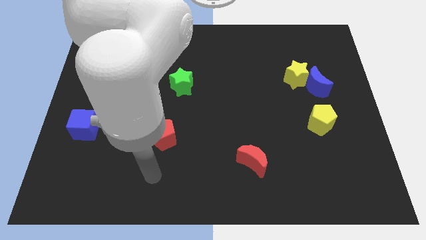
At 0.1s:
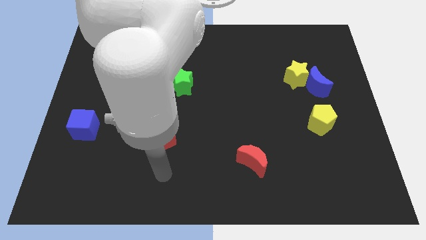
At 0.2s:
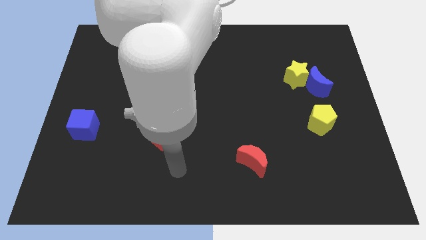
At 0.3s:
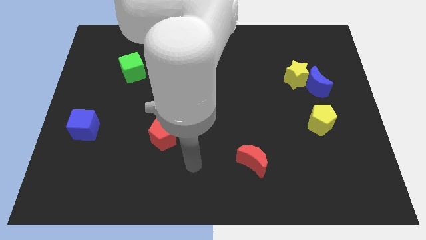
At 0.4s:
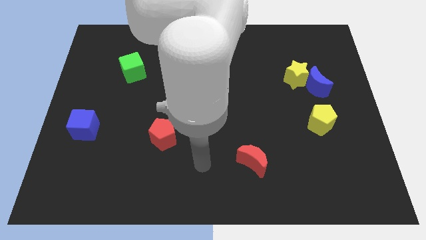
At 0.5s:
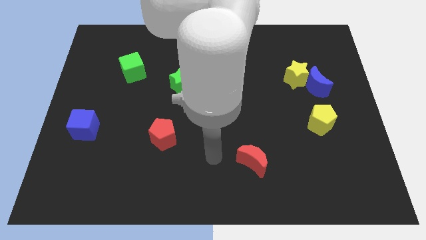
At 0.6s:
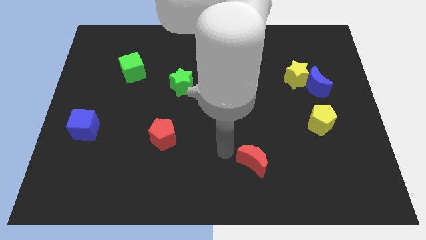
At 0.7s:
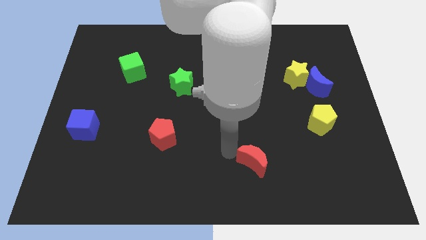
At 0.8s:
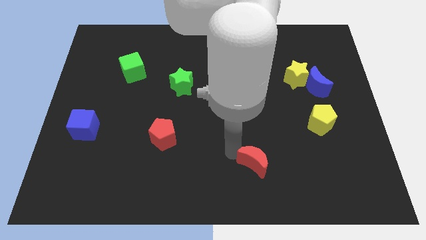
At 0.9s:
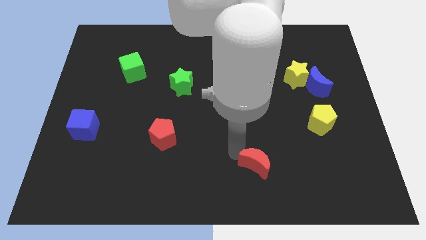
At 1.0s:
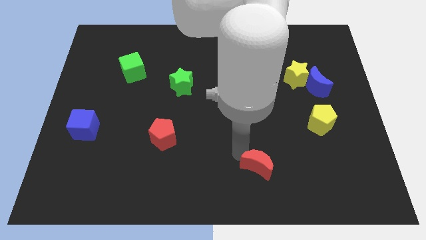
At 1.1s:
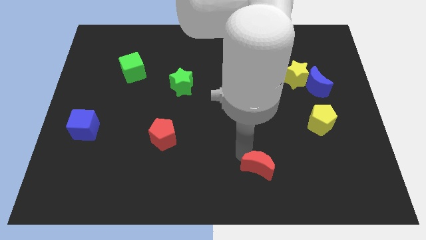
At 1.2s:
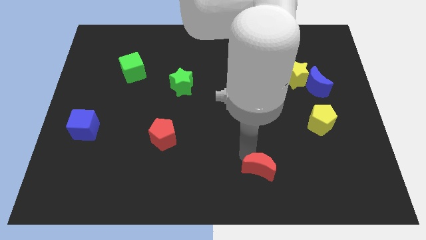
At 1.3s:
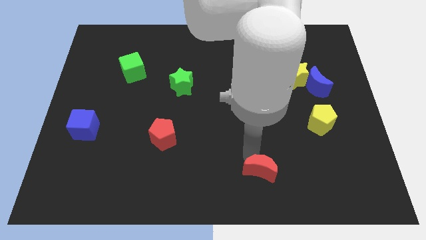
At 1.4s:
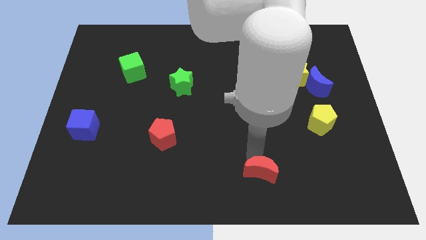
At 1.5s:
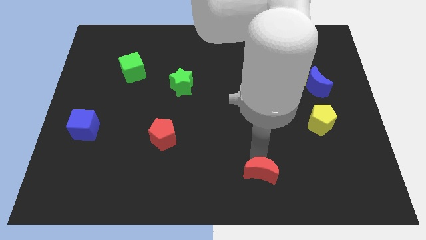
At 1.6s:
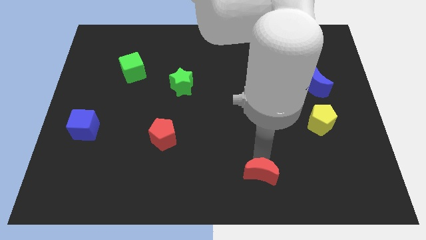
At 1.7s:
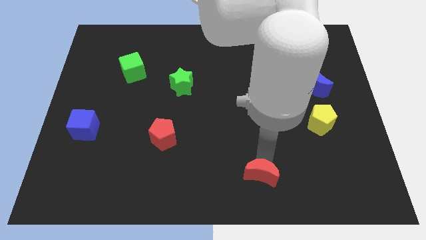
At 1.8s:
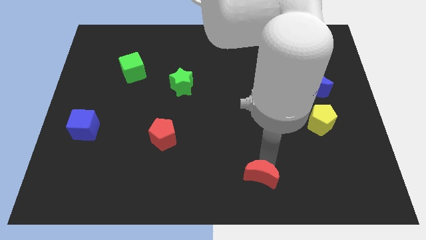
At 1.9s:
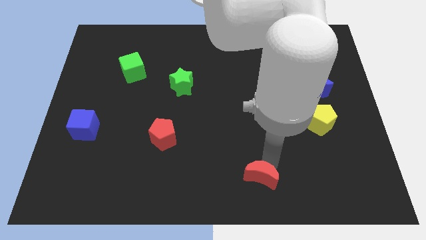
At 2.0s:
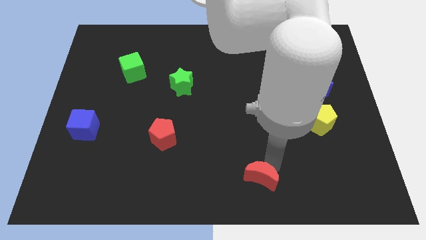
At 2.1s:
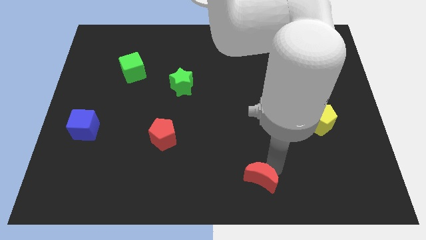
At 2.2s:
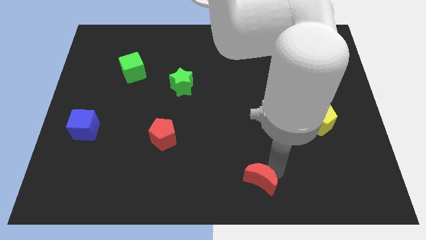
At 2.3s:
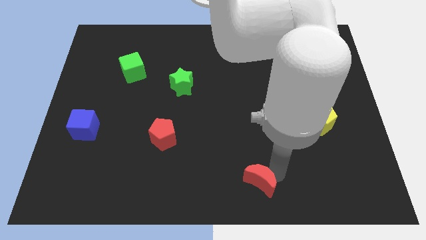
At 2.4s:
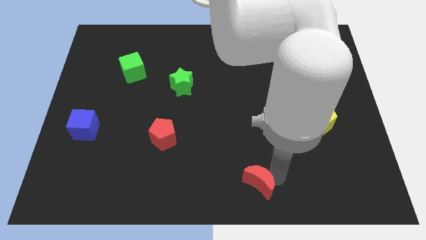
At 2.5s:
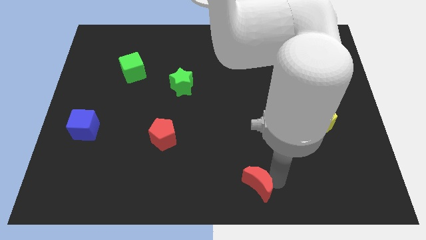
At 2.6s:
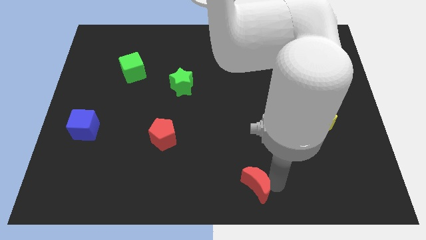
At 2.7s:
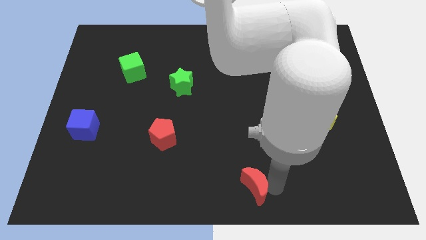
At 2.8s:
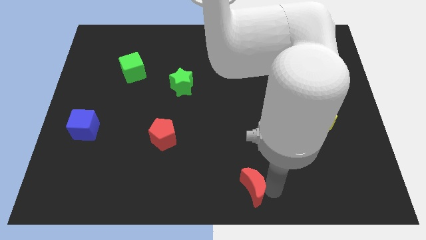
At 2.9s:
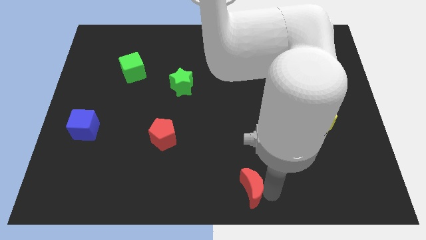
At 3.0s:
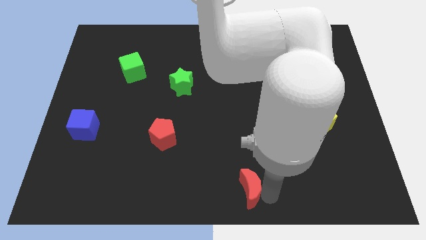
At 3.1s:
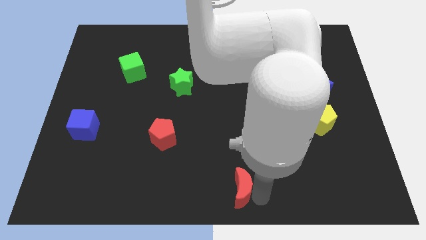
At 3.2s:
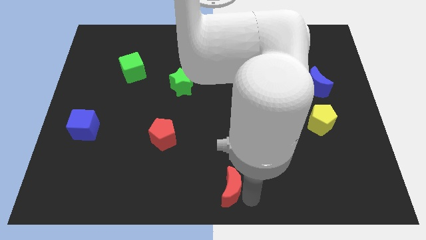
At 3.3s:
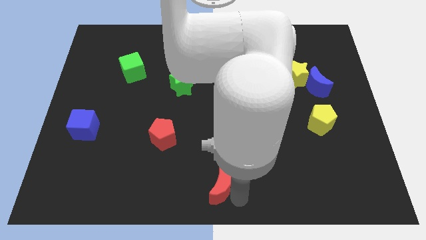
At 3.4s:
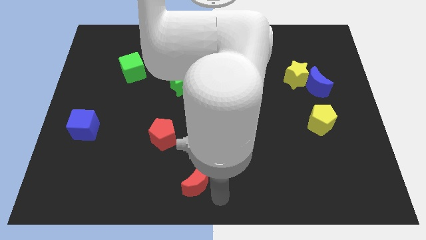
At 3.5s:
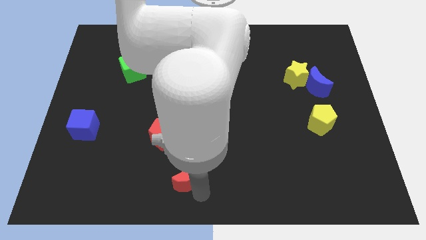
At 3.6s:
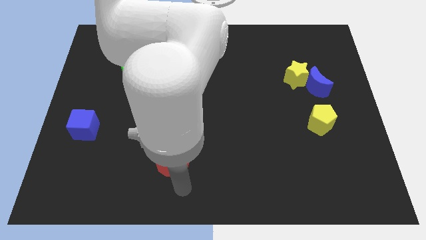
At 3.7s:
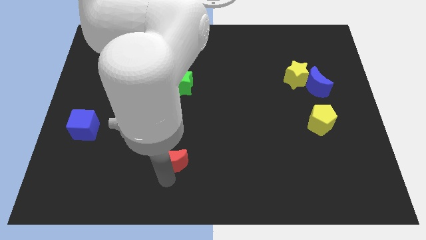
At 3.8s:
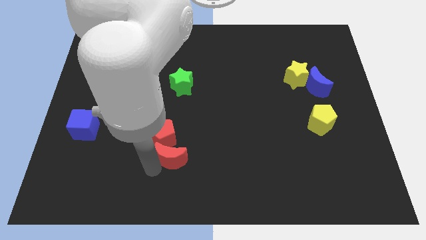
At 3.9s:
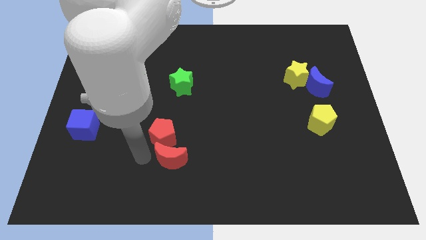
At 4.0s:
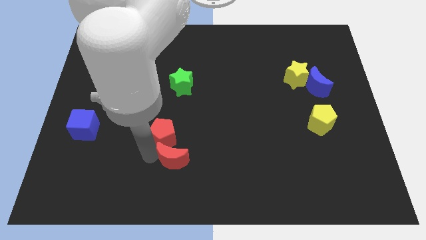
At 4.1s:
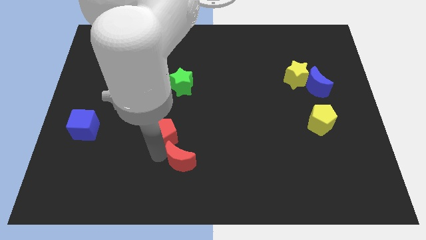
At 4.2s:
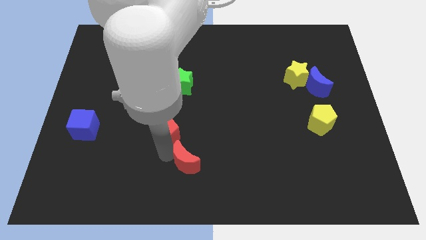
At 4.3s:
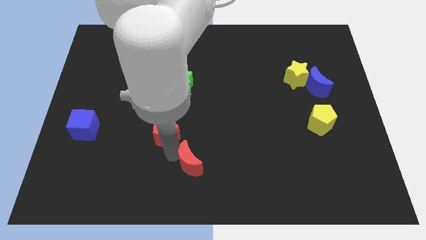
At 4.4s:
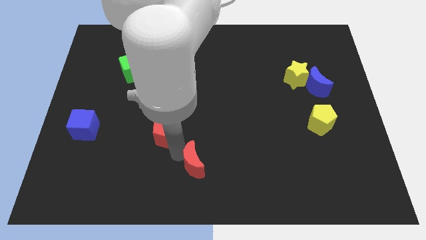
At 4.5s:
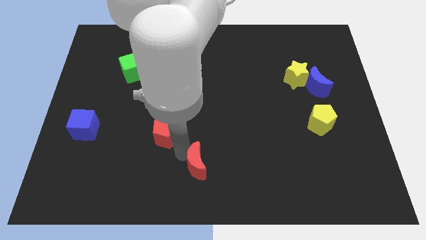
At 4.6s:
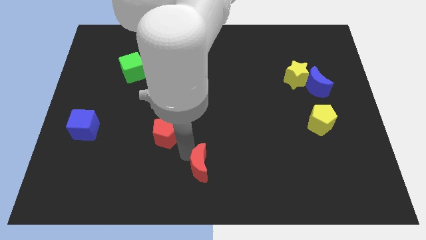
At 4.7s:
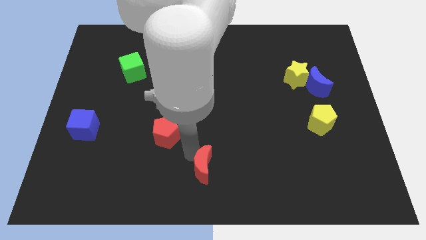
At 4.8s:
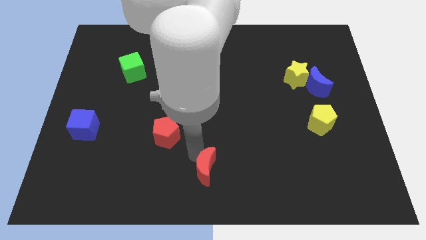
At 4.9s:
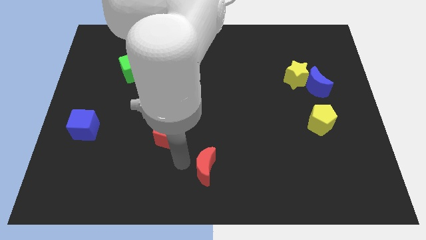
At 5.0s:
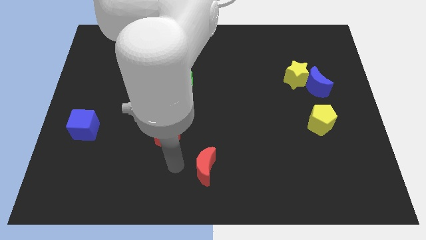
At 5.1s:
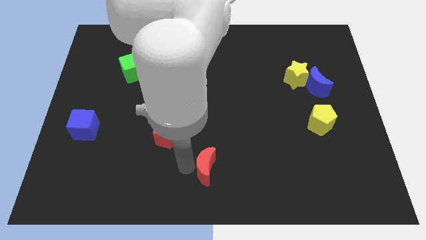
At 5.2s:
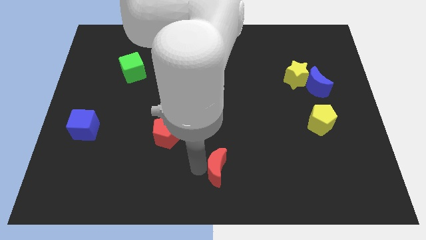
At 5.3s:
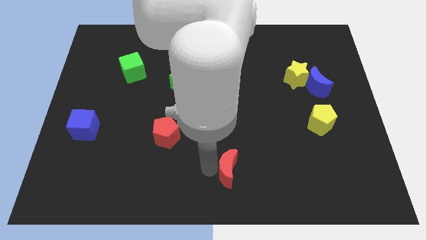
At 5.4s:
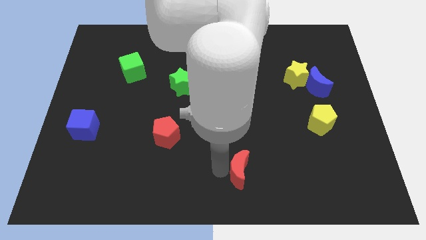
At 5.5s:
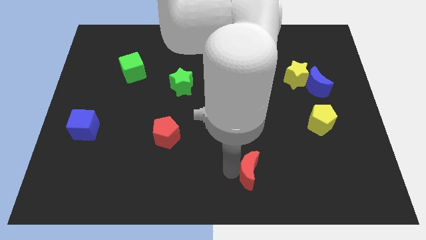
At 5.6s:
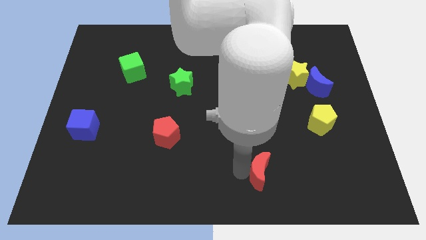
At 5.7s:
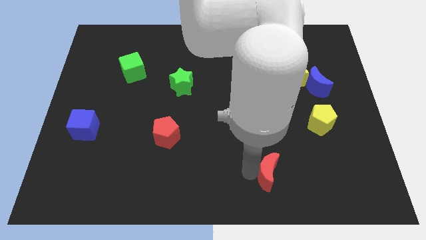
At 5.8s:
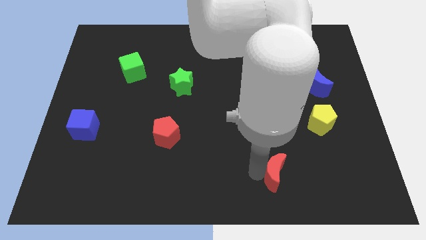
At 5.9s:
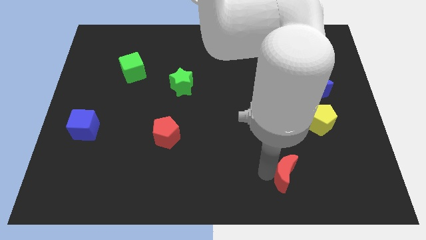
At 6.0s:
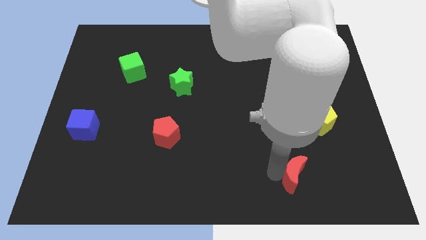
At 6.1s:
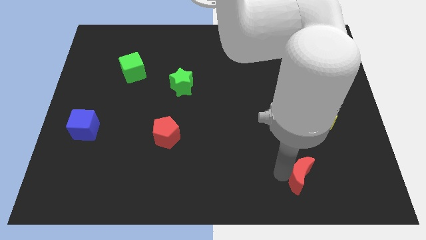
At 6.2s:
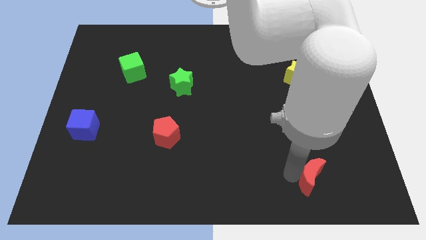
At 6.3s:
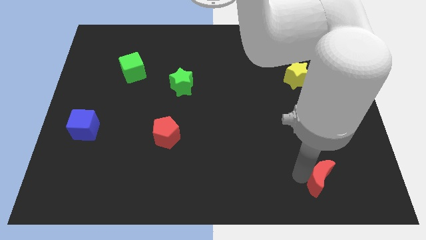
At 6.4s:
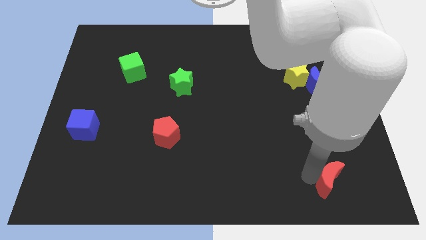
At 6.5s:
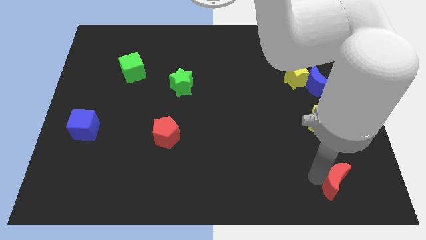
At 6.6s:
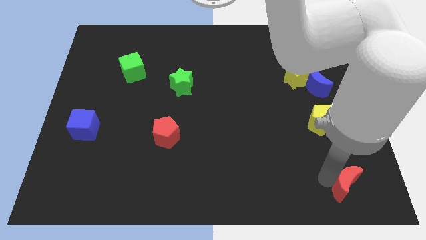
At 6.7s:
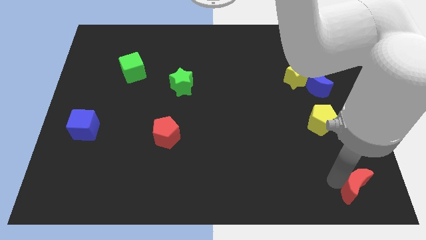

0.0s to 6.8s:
put the red moon to the bottom right of the board
